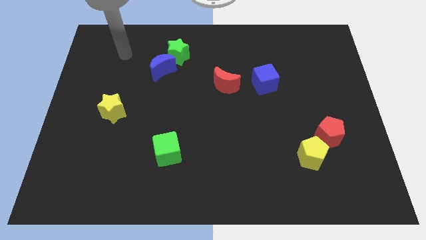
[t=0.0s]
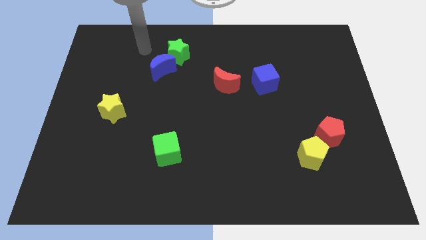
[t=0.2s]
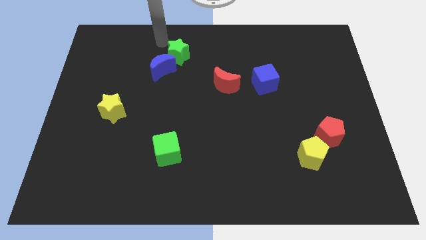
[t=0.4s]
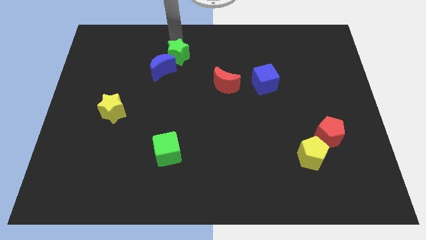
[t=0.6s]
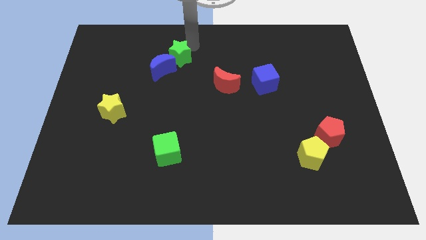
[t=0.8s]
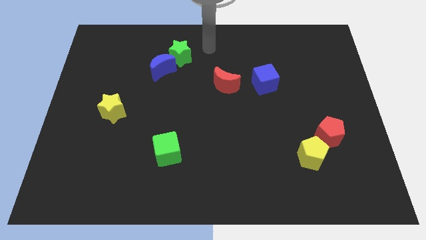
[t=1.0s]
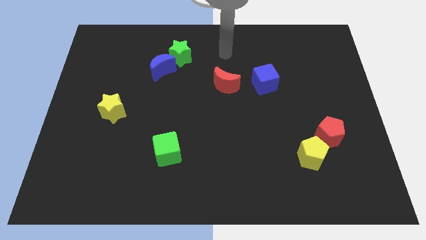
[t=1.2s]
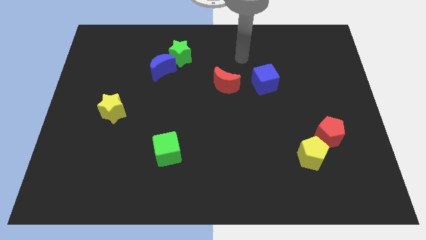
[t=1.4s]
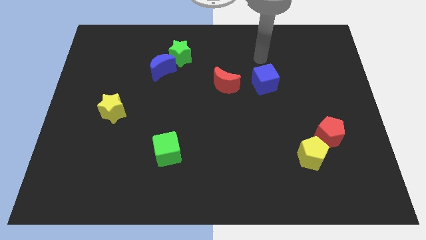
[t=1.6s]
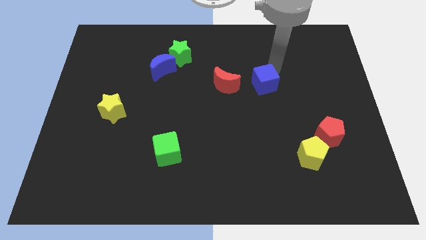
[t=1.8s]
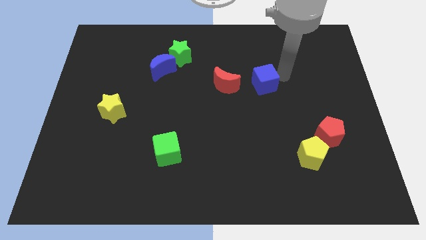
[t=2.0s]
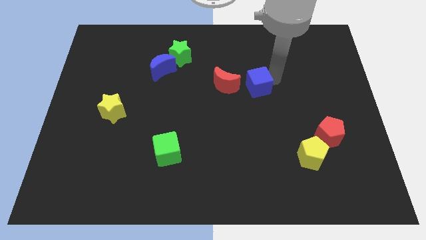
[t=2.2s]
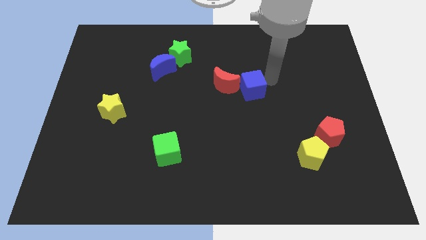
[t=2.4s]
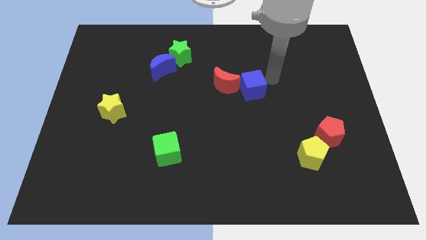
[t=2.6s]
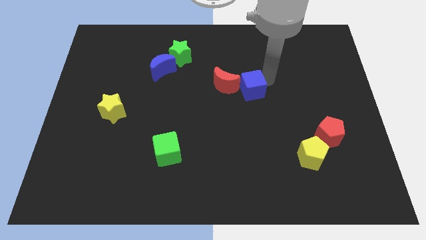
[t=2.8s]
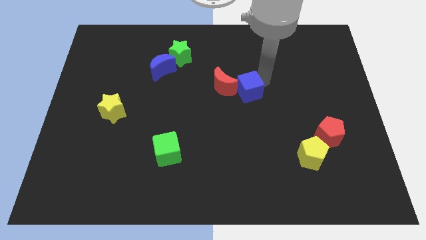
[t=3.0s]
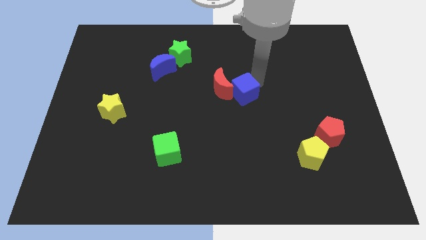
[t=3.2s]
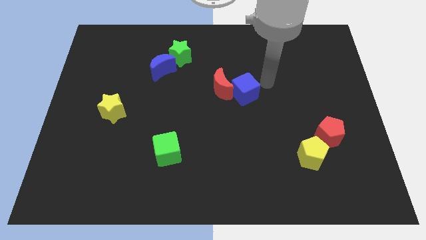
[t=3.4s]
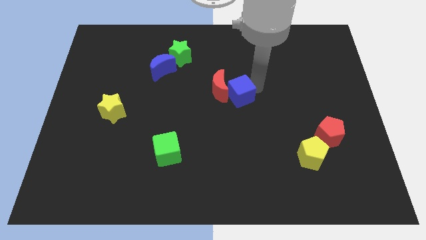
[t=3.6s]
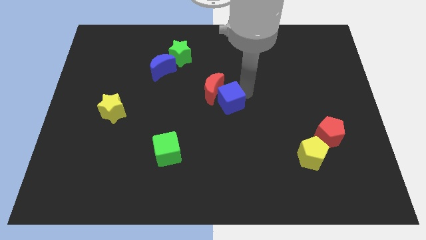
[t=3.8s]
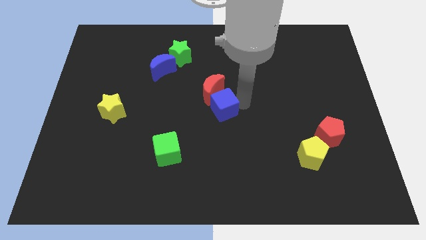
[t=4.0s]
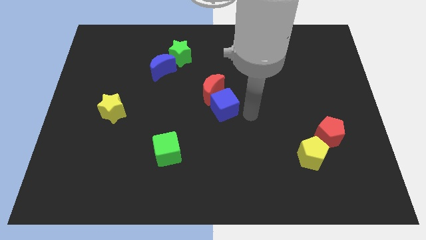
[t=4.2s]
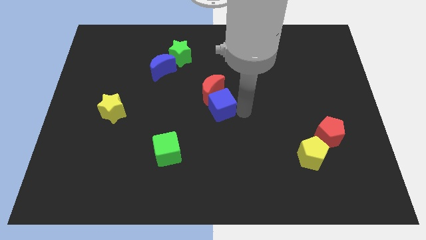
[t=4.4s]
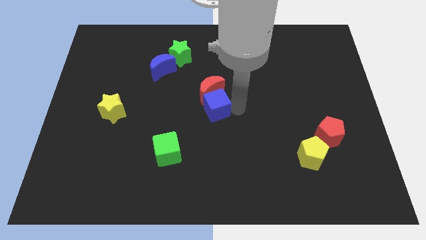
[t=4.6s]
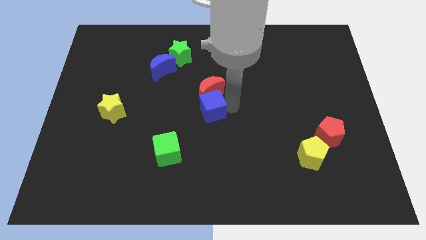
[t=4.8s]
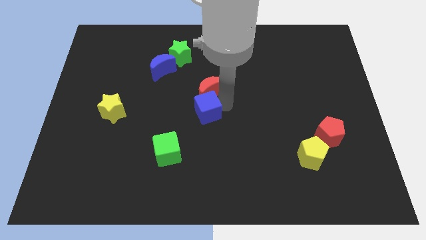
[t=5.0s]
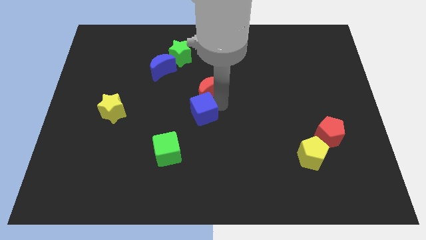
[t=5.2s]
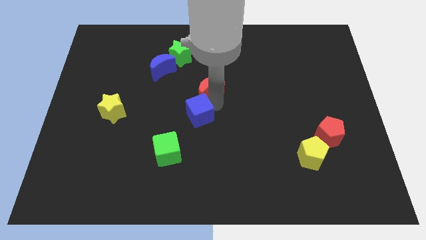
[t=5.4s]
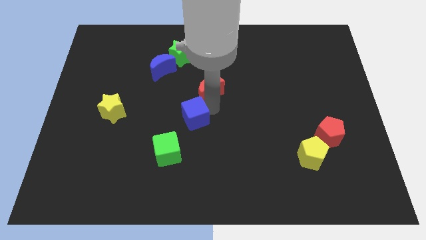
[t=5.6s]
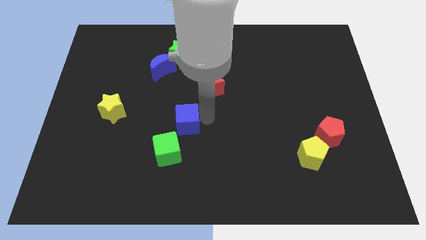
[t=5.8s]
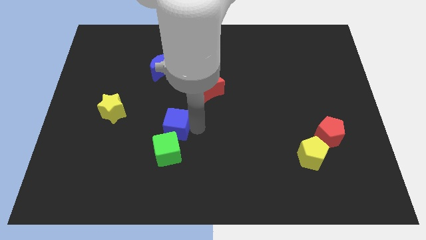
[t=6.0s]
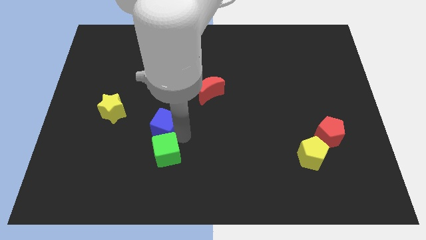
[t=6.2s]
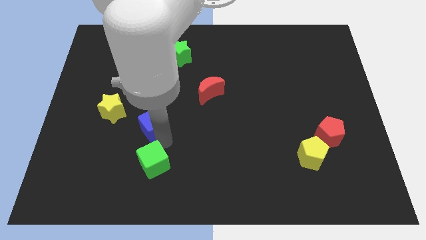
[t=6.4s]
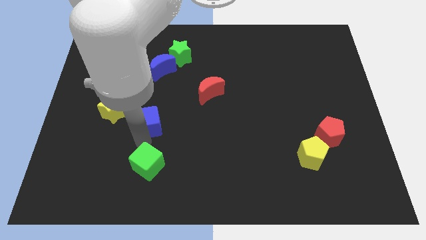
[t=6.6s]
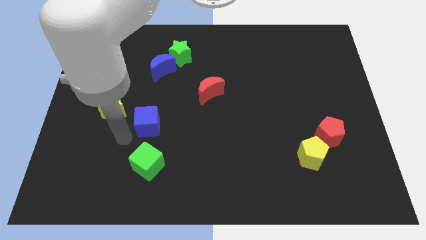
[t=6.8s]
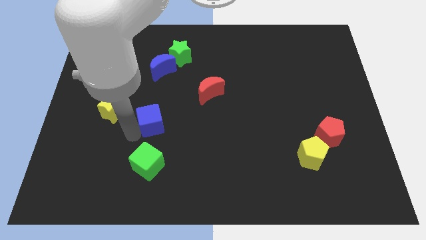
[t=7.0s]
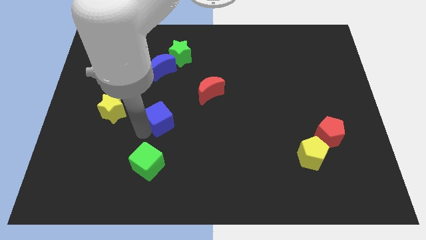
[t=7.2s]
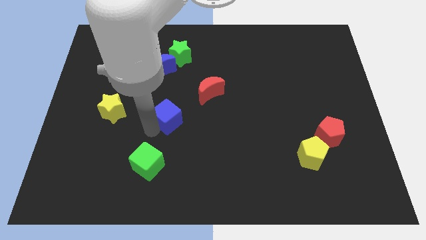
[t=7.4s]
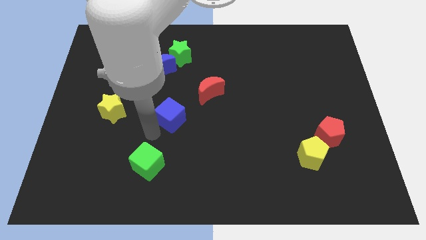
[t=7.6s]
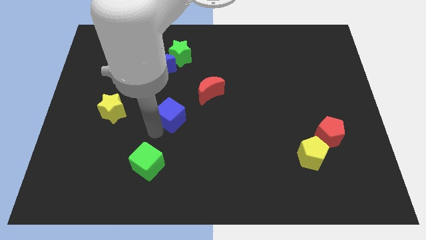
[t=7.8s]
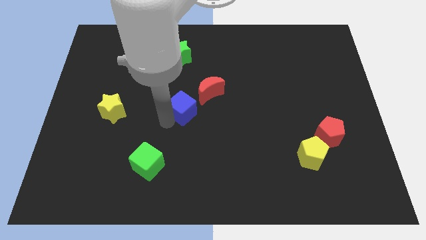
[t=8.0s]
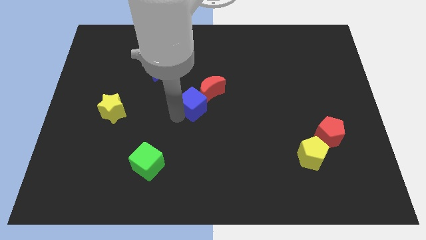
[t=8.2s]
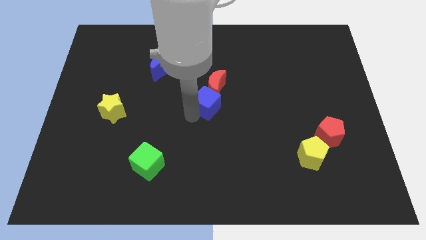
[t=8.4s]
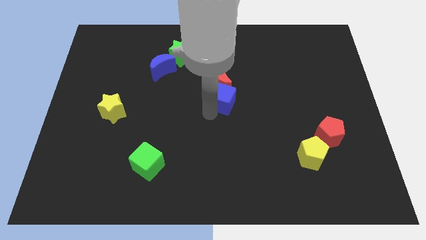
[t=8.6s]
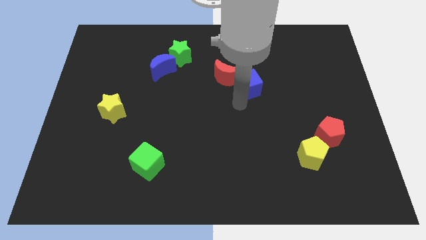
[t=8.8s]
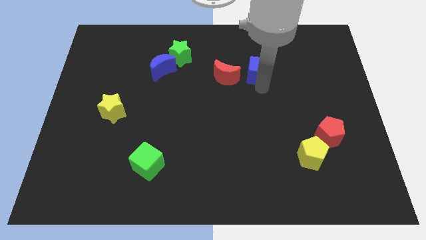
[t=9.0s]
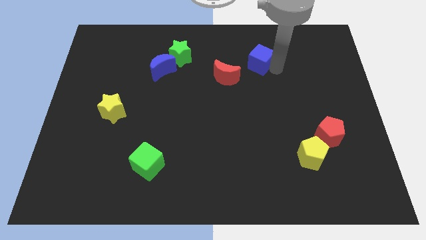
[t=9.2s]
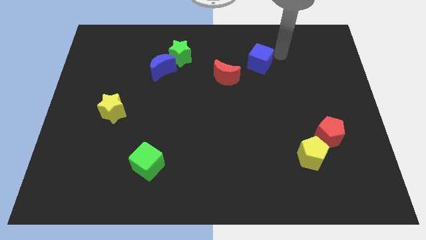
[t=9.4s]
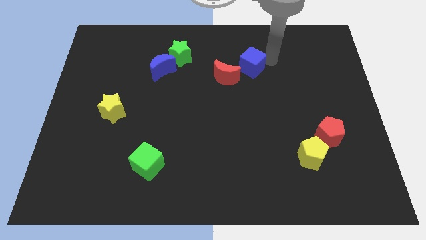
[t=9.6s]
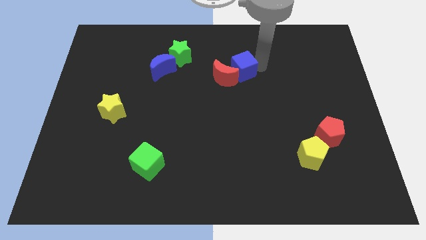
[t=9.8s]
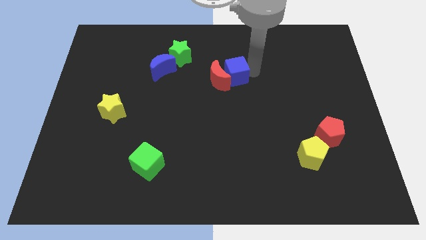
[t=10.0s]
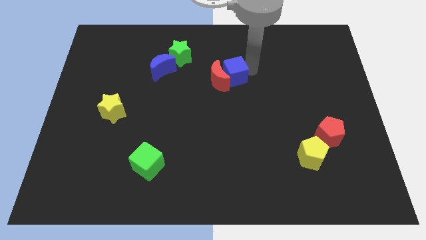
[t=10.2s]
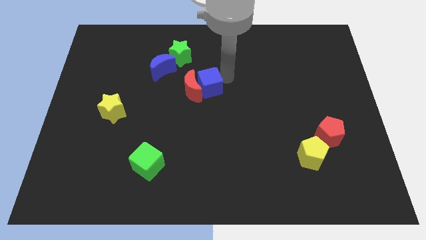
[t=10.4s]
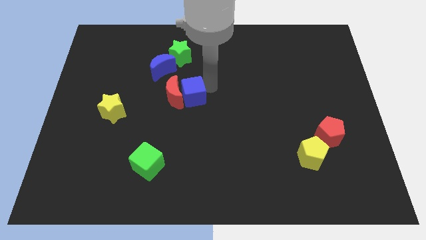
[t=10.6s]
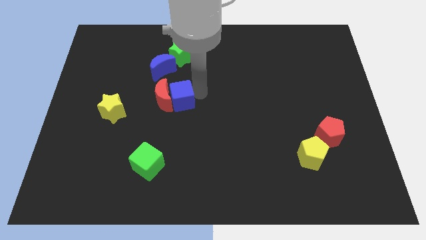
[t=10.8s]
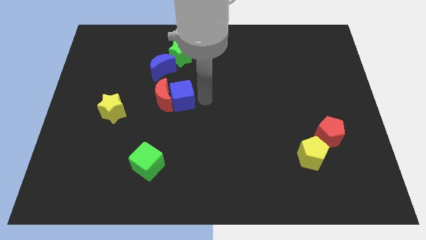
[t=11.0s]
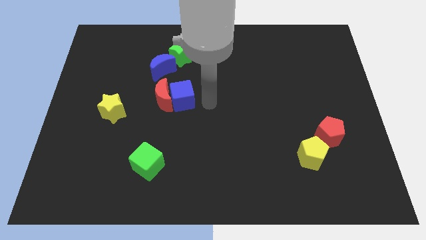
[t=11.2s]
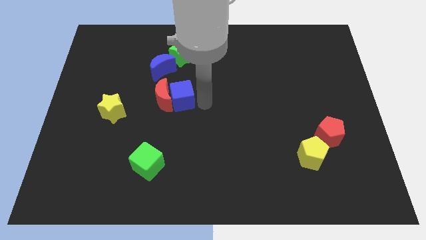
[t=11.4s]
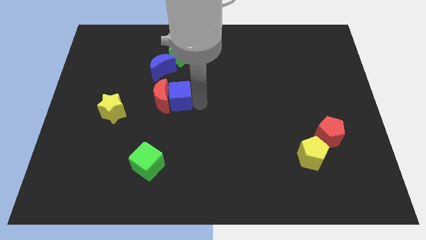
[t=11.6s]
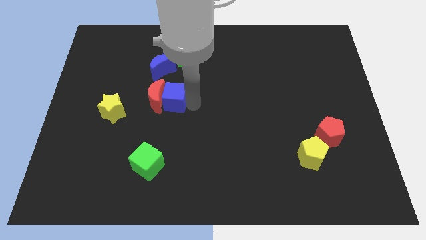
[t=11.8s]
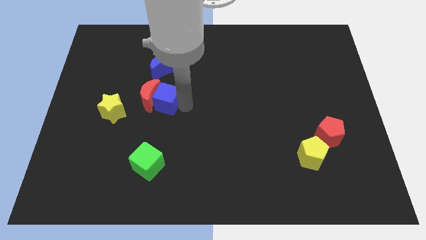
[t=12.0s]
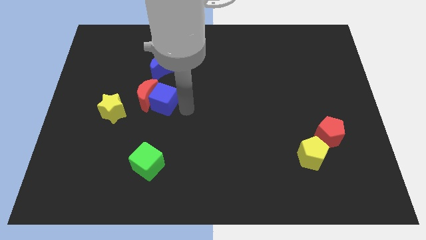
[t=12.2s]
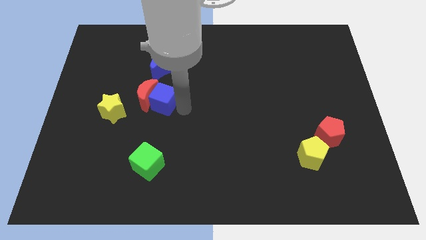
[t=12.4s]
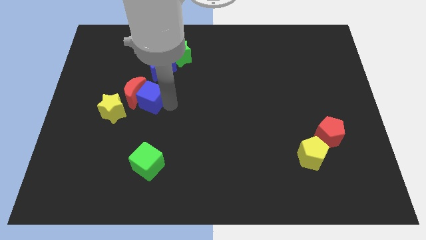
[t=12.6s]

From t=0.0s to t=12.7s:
push the blue cube diagonally up and to the right of the yellow star

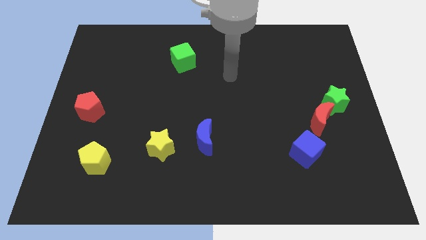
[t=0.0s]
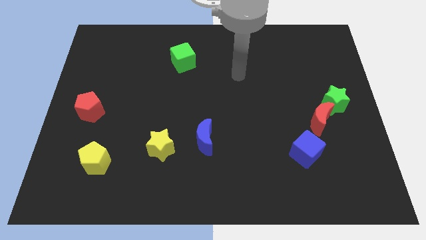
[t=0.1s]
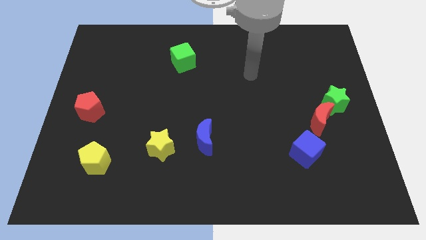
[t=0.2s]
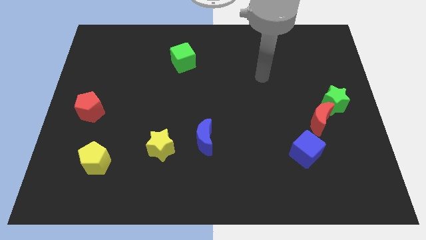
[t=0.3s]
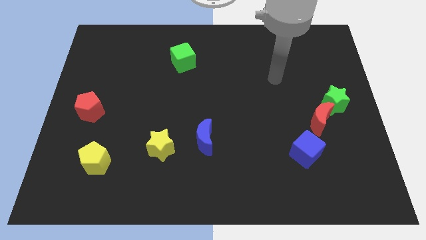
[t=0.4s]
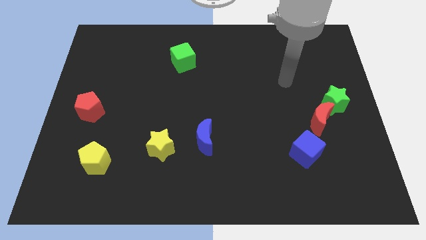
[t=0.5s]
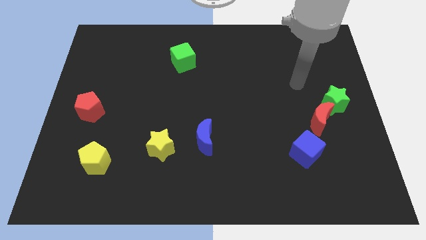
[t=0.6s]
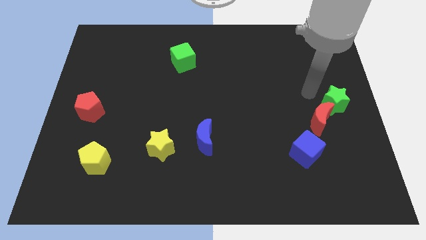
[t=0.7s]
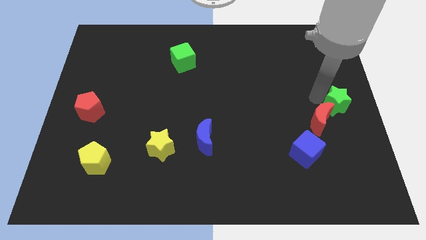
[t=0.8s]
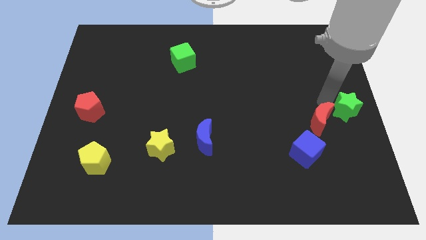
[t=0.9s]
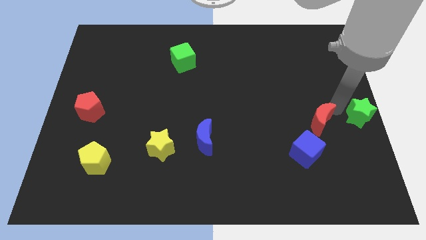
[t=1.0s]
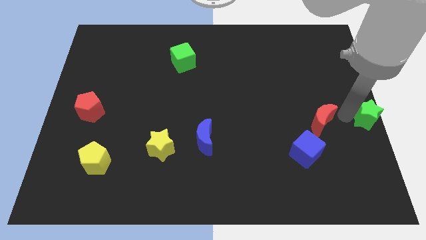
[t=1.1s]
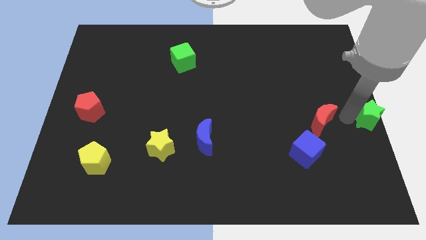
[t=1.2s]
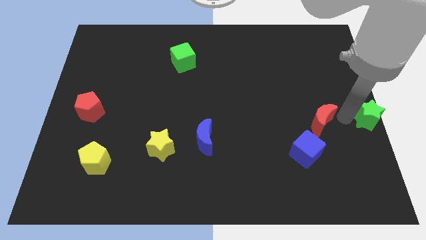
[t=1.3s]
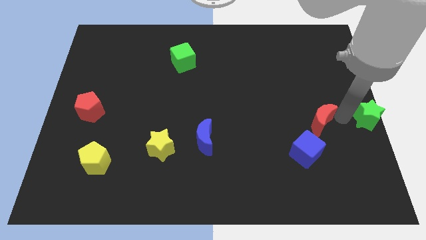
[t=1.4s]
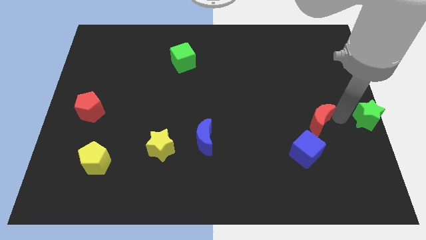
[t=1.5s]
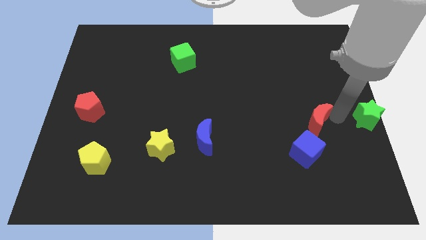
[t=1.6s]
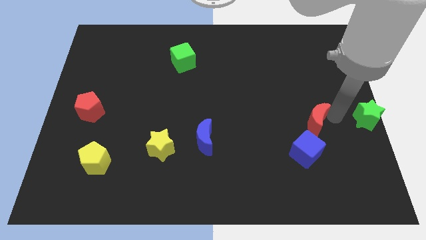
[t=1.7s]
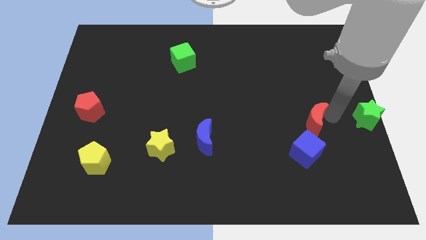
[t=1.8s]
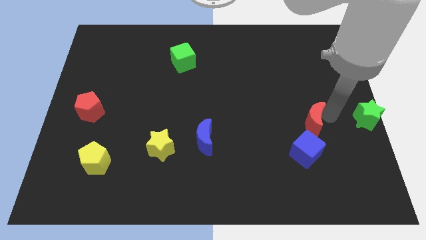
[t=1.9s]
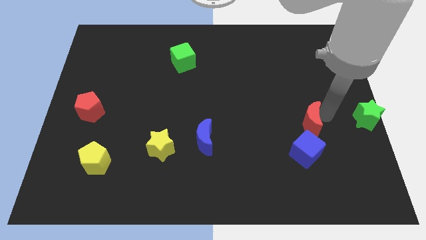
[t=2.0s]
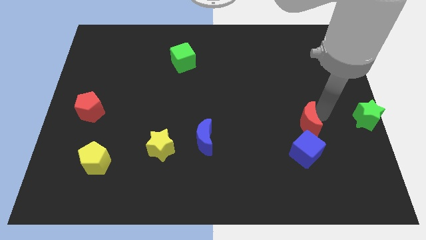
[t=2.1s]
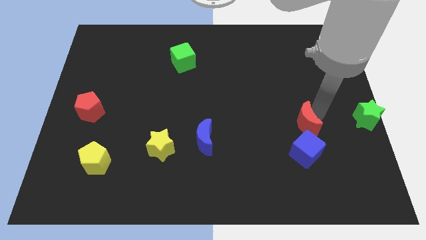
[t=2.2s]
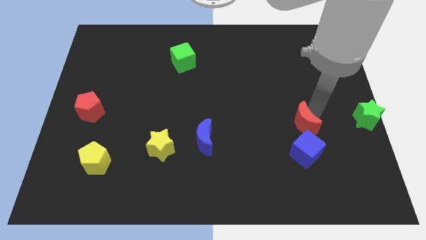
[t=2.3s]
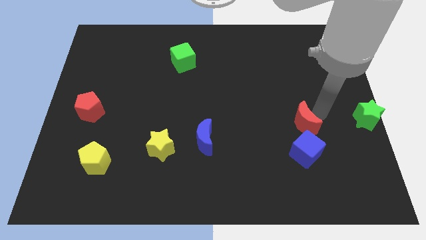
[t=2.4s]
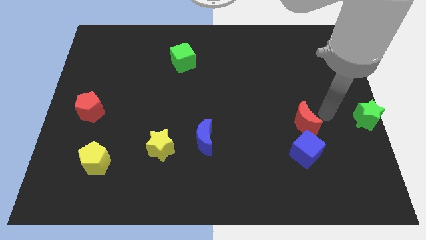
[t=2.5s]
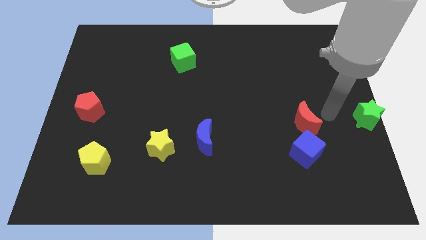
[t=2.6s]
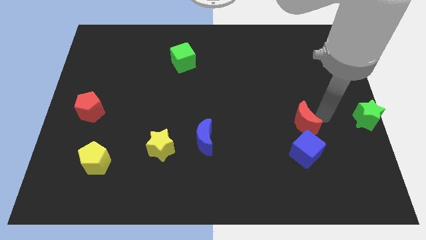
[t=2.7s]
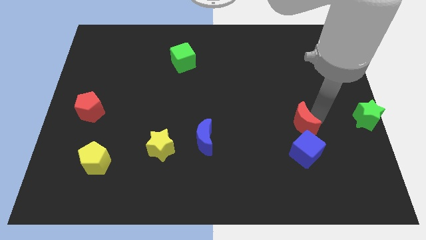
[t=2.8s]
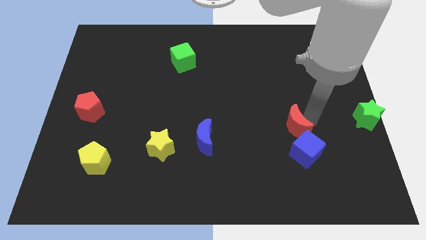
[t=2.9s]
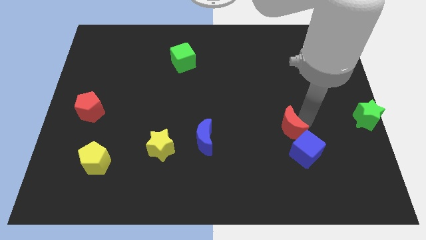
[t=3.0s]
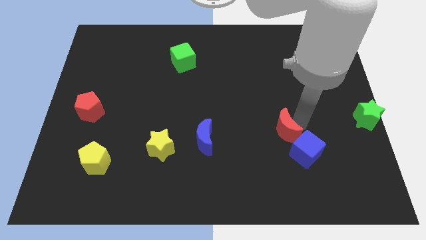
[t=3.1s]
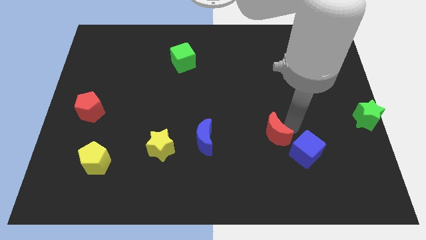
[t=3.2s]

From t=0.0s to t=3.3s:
slide the red moon right of the blue moon
